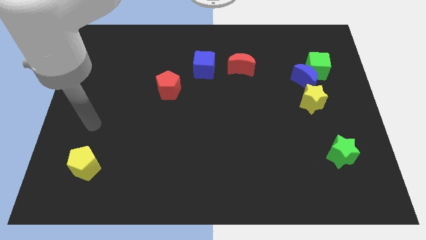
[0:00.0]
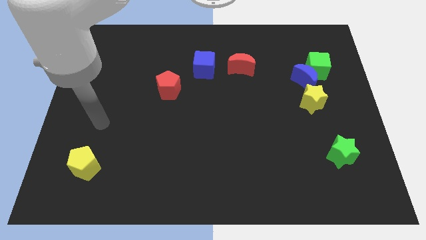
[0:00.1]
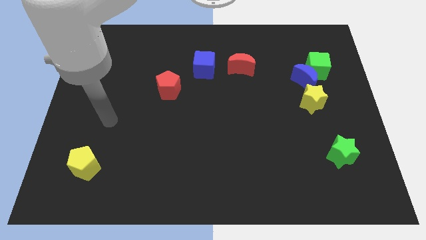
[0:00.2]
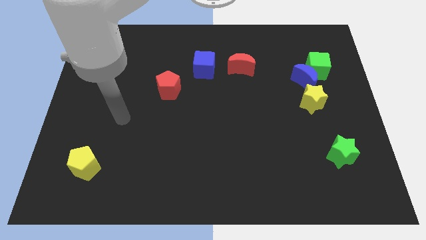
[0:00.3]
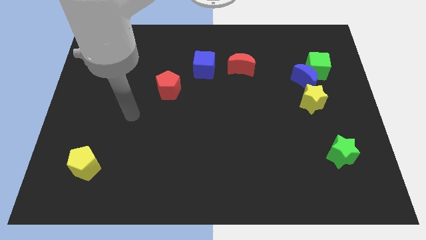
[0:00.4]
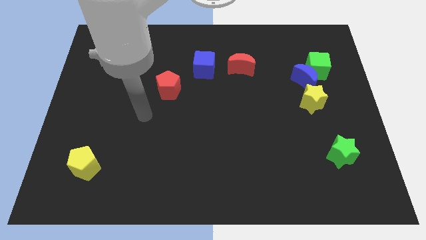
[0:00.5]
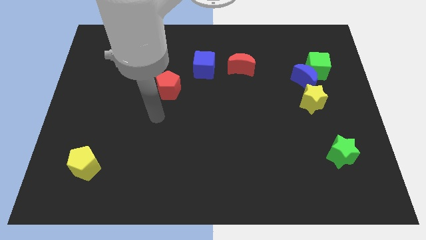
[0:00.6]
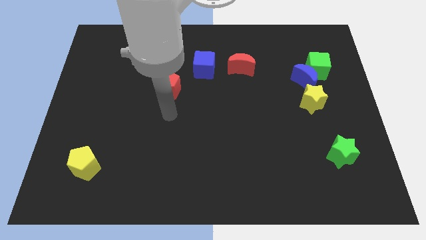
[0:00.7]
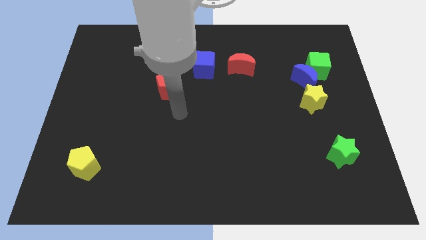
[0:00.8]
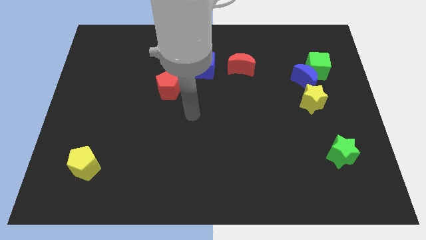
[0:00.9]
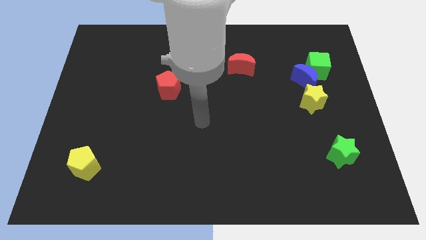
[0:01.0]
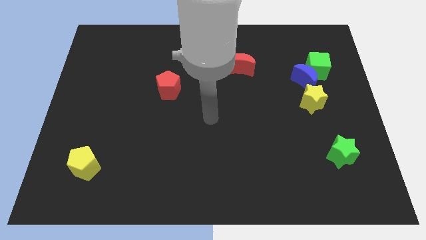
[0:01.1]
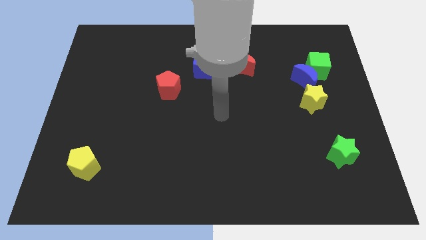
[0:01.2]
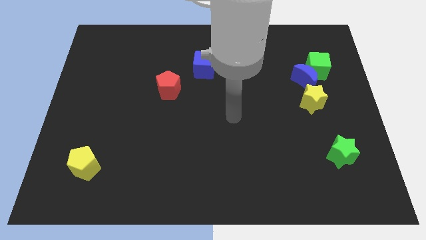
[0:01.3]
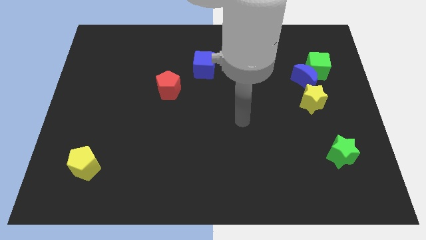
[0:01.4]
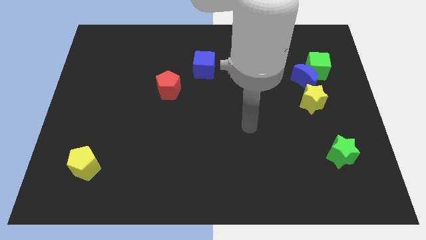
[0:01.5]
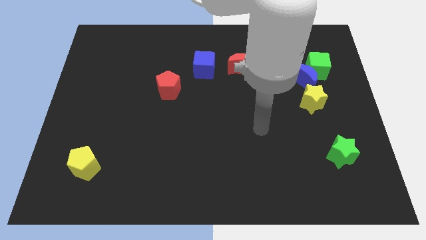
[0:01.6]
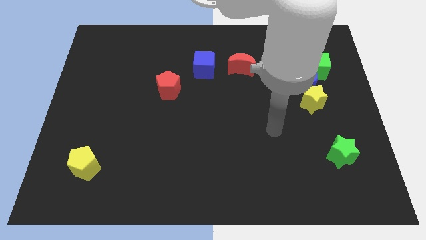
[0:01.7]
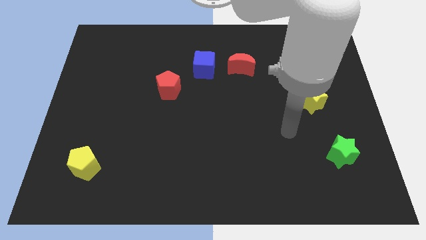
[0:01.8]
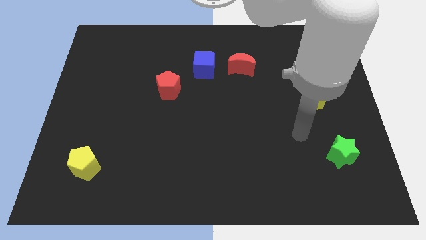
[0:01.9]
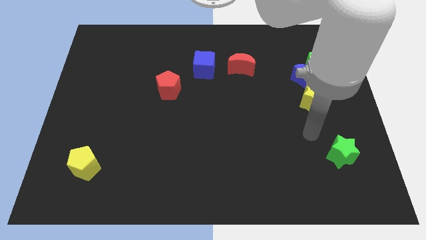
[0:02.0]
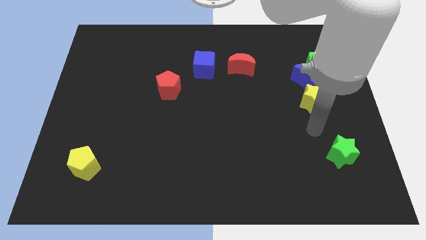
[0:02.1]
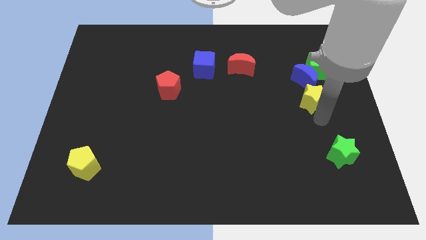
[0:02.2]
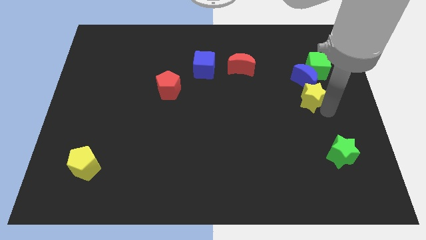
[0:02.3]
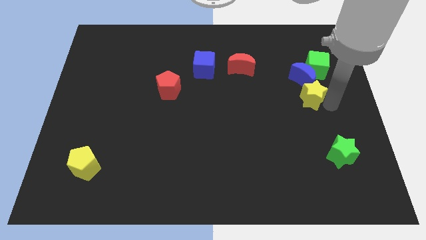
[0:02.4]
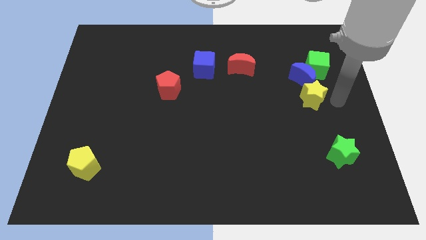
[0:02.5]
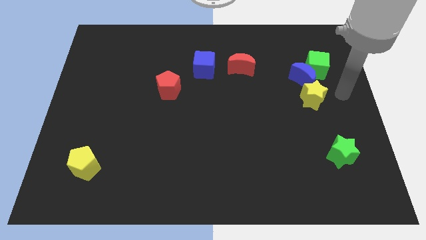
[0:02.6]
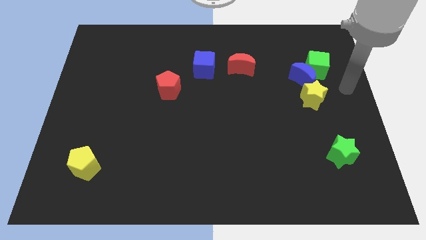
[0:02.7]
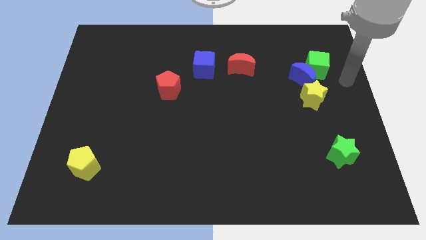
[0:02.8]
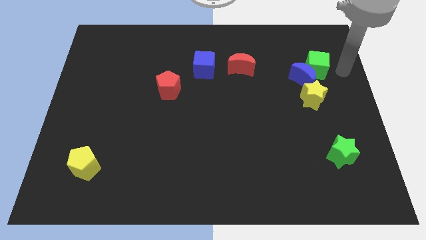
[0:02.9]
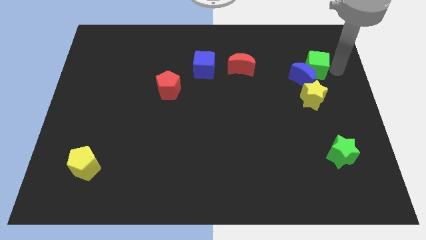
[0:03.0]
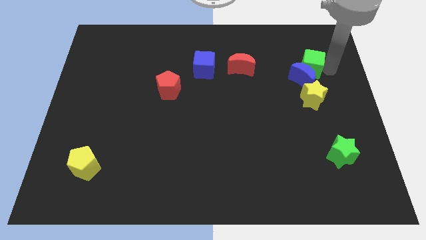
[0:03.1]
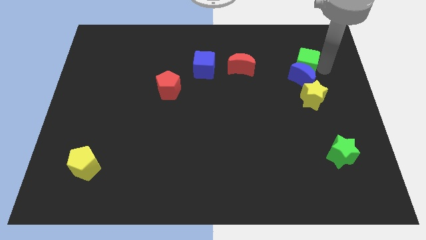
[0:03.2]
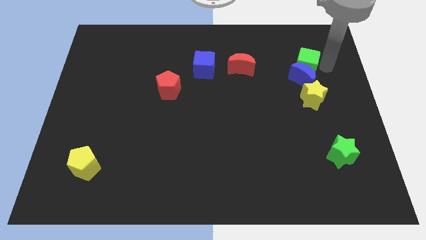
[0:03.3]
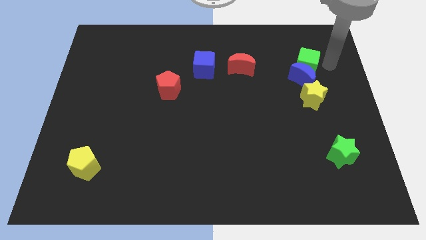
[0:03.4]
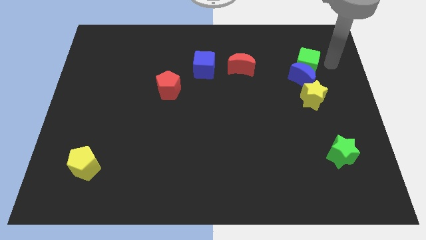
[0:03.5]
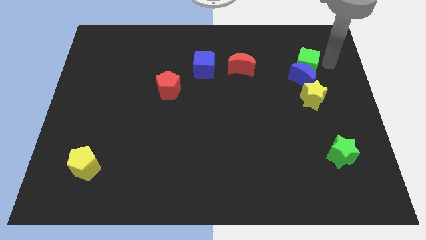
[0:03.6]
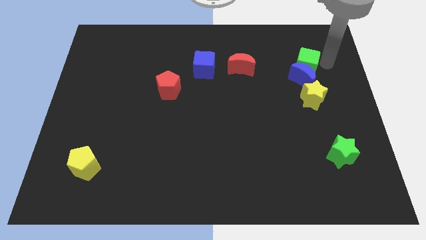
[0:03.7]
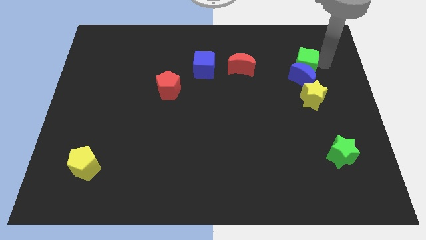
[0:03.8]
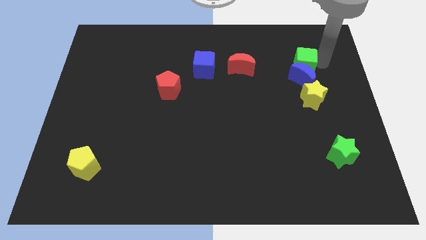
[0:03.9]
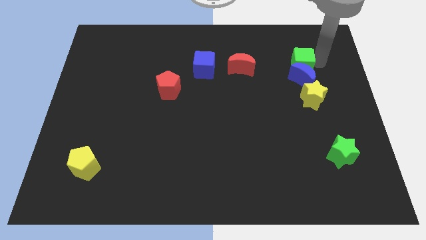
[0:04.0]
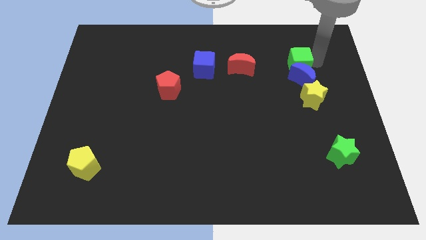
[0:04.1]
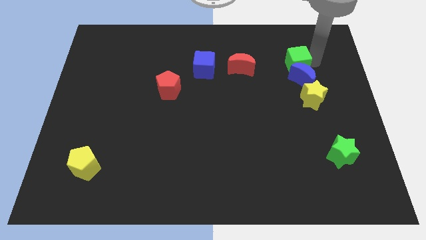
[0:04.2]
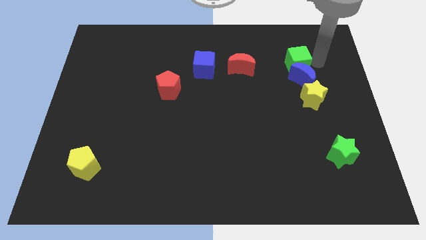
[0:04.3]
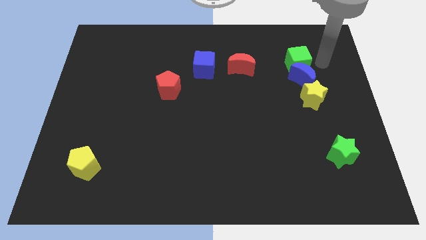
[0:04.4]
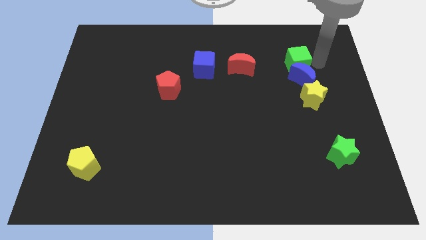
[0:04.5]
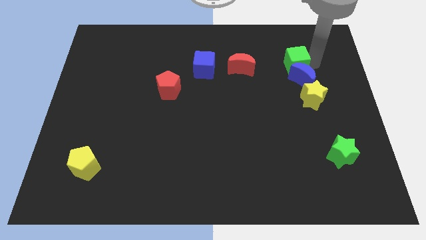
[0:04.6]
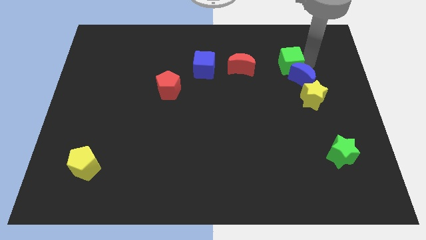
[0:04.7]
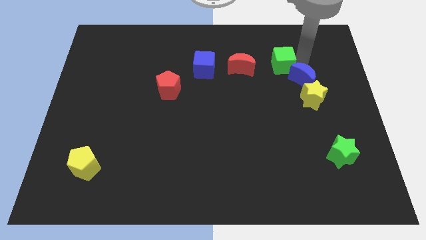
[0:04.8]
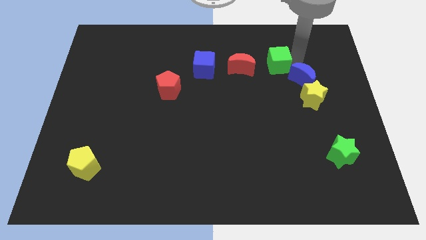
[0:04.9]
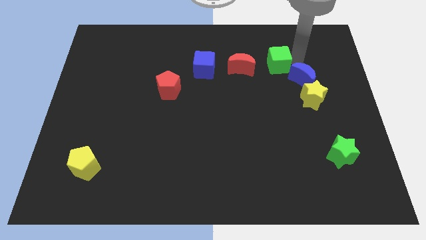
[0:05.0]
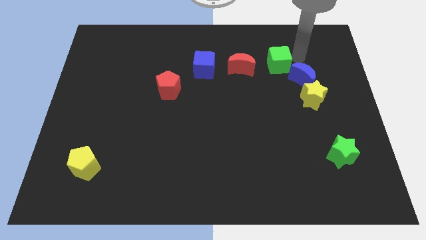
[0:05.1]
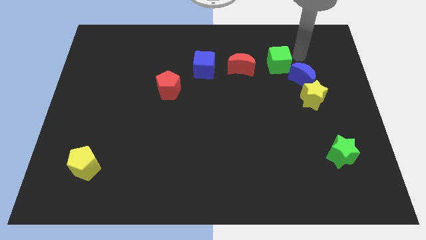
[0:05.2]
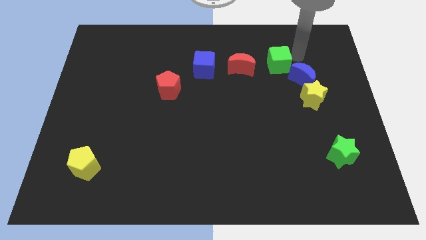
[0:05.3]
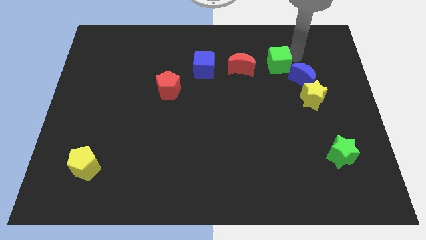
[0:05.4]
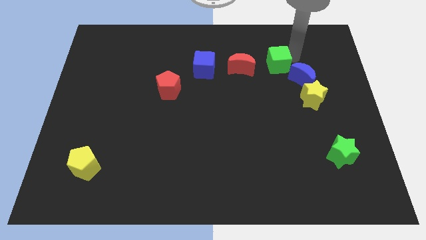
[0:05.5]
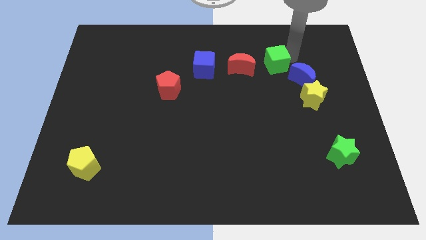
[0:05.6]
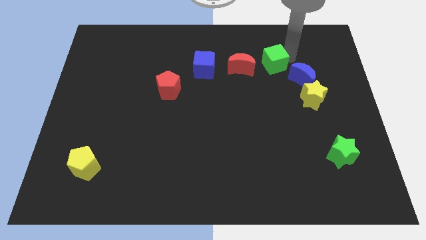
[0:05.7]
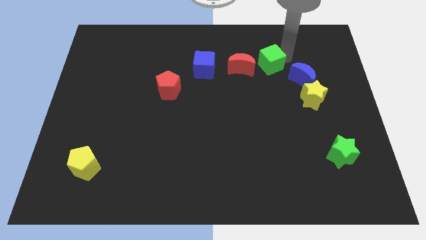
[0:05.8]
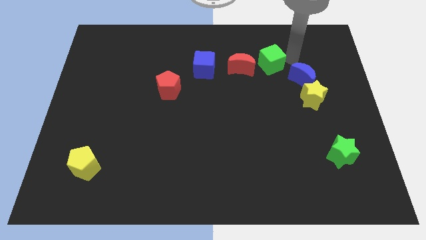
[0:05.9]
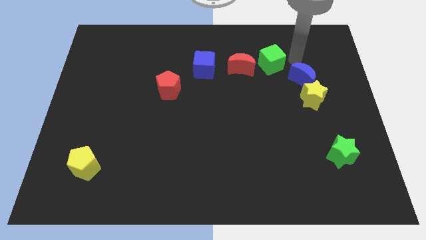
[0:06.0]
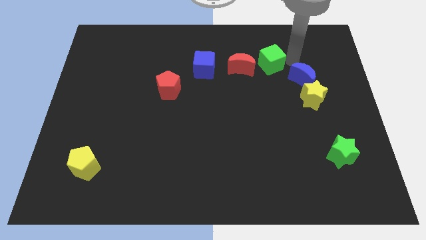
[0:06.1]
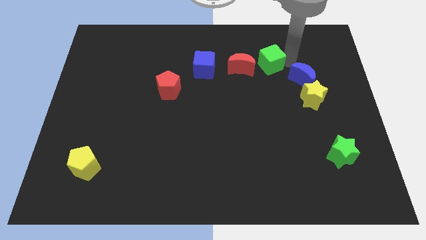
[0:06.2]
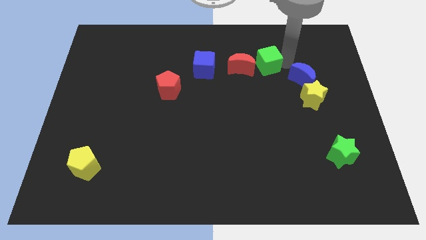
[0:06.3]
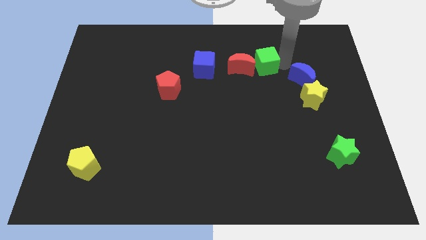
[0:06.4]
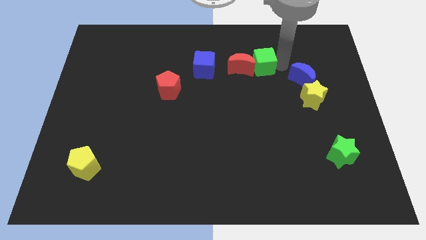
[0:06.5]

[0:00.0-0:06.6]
put the green cube to the red moon

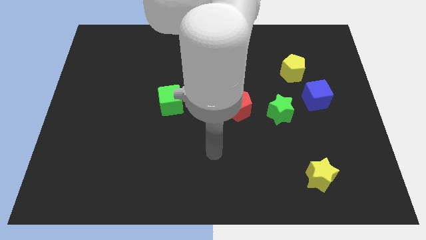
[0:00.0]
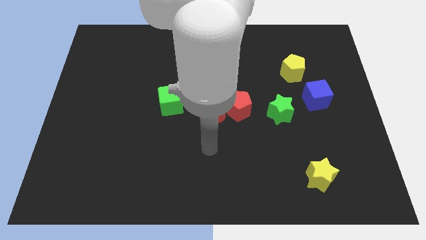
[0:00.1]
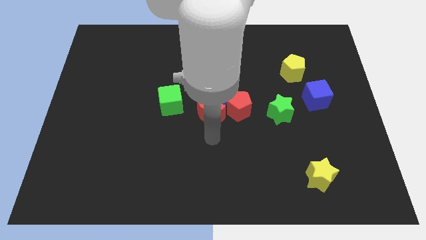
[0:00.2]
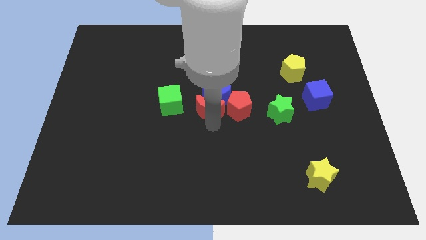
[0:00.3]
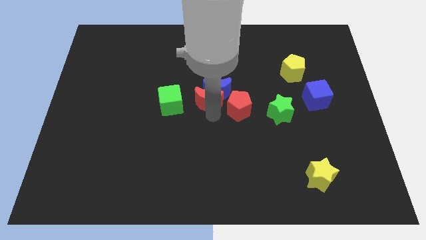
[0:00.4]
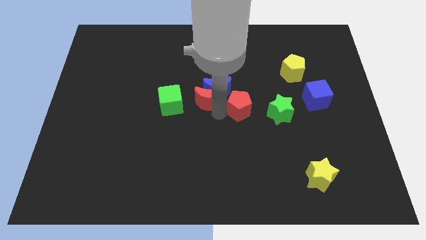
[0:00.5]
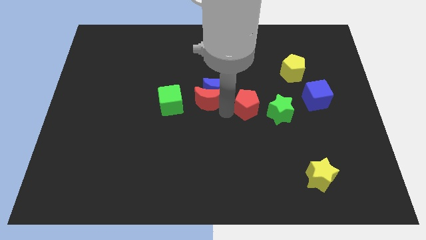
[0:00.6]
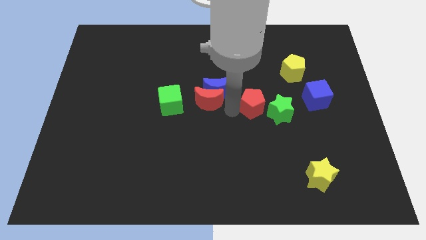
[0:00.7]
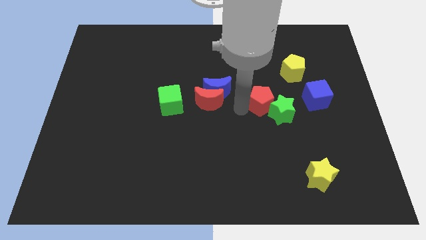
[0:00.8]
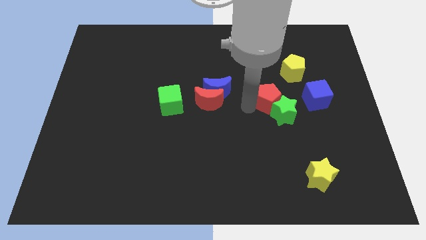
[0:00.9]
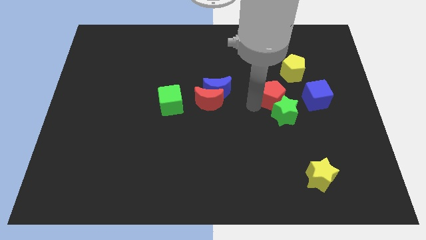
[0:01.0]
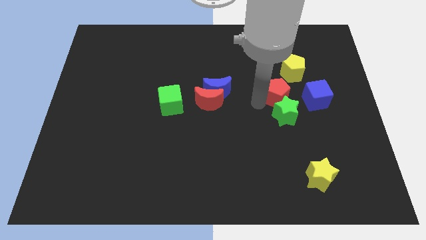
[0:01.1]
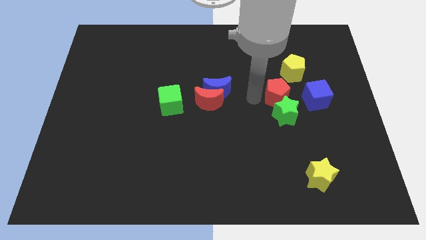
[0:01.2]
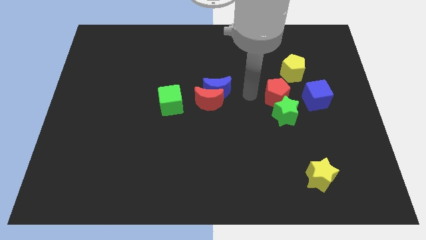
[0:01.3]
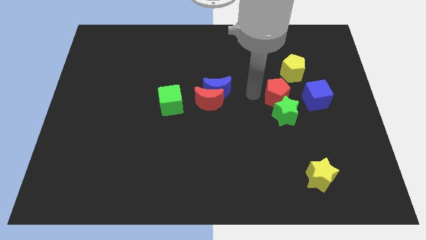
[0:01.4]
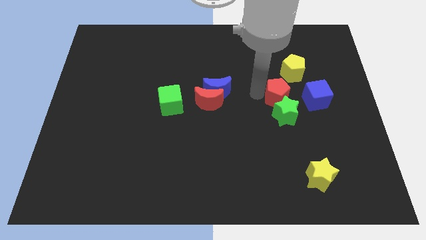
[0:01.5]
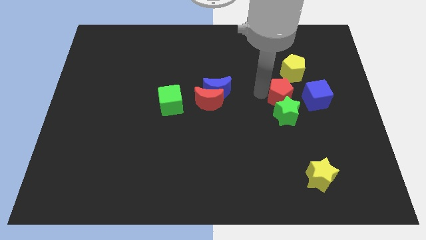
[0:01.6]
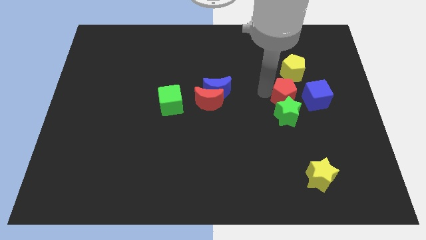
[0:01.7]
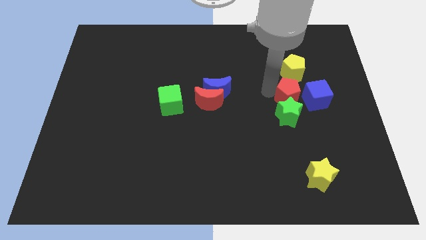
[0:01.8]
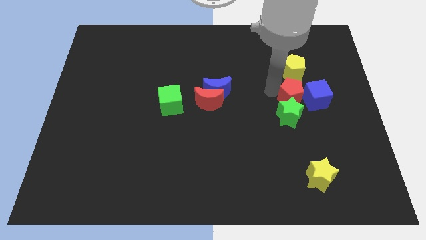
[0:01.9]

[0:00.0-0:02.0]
move the red pentagon close to the blue cube
